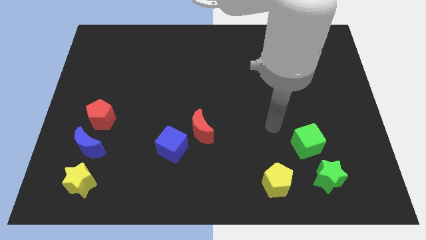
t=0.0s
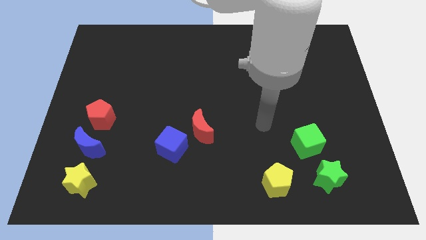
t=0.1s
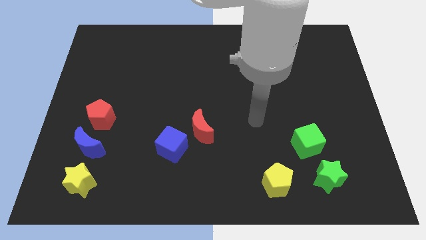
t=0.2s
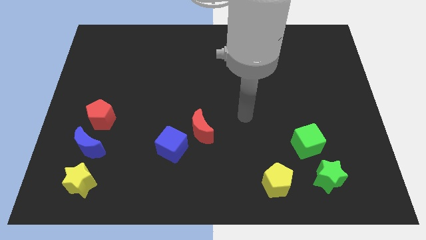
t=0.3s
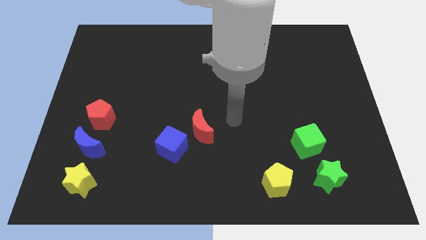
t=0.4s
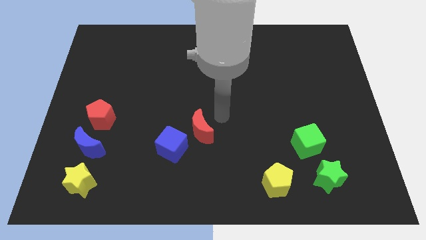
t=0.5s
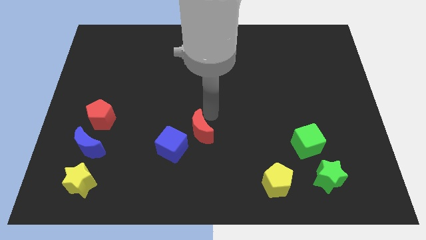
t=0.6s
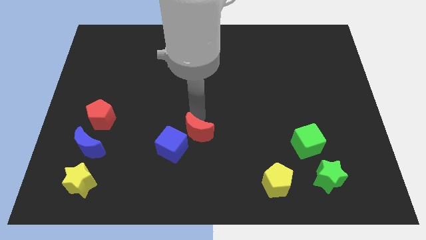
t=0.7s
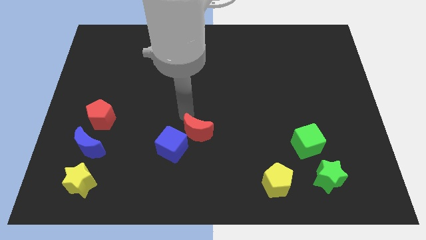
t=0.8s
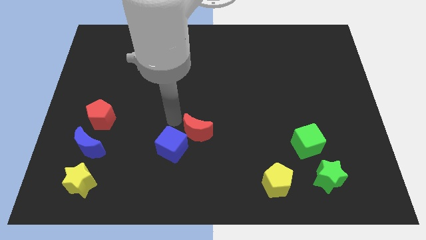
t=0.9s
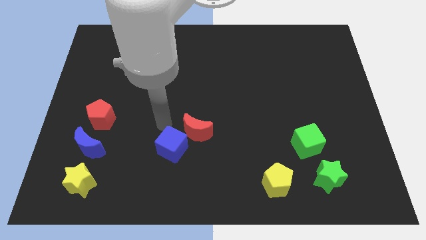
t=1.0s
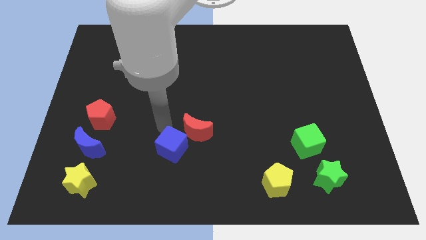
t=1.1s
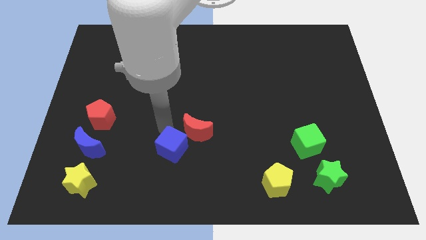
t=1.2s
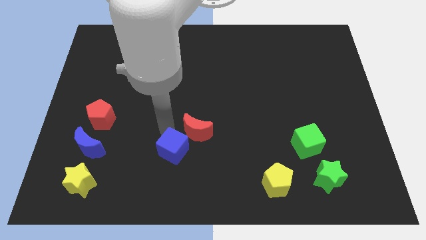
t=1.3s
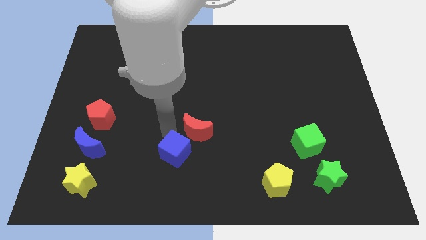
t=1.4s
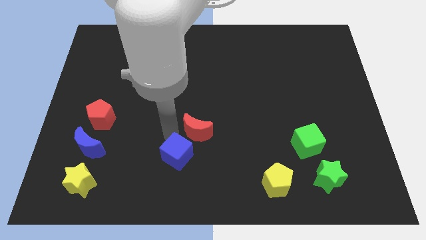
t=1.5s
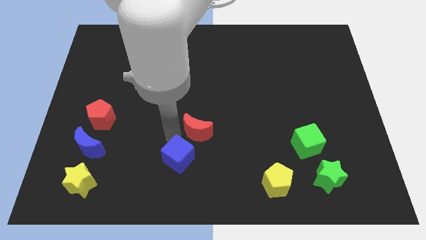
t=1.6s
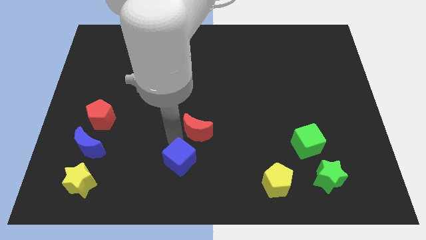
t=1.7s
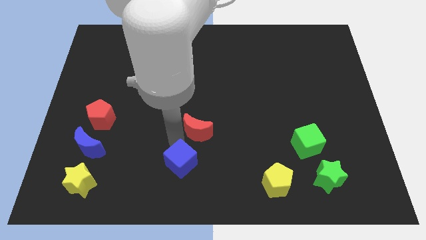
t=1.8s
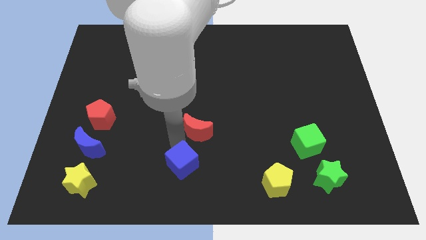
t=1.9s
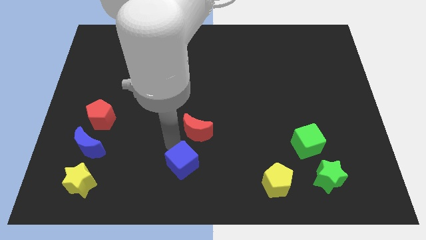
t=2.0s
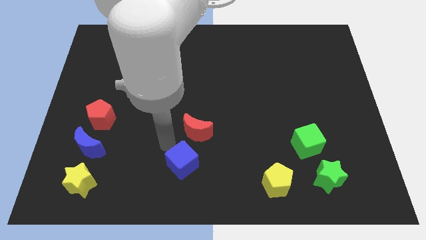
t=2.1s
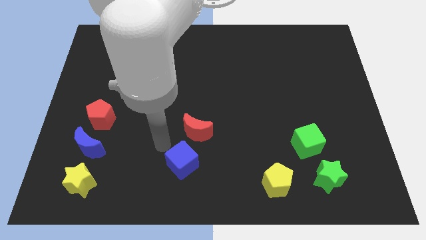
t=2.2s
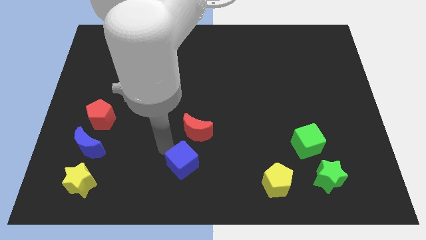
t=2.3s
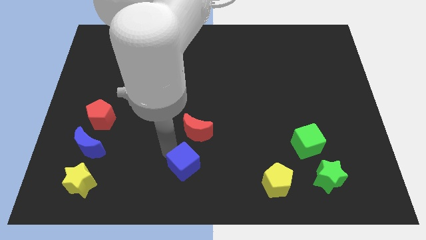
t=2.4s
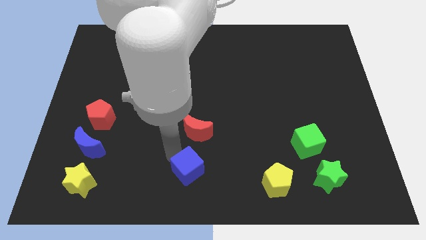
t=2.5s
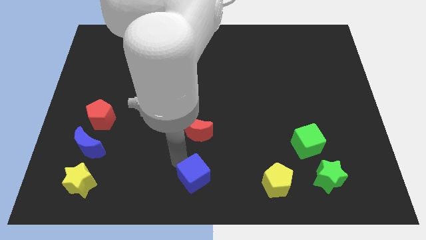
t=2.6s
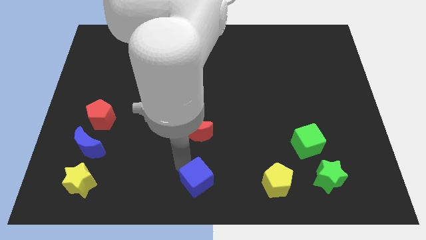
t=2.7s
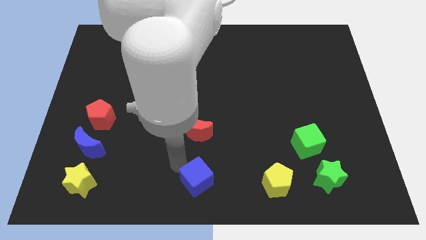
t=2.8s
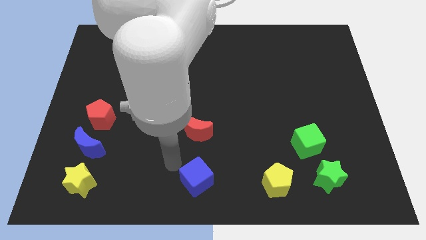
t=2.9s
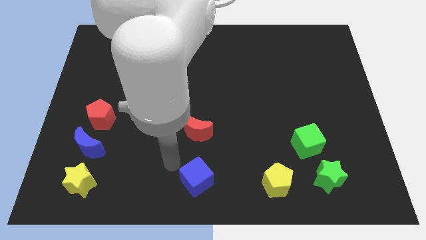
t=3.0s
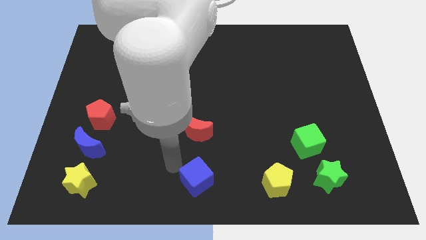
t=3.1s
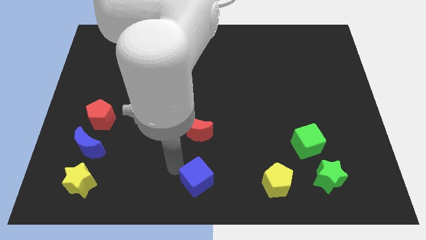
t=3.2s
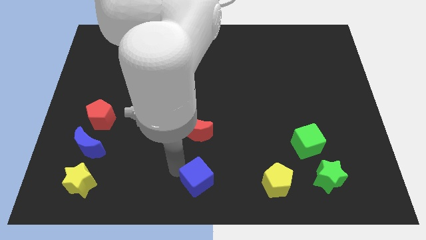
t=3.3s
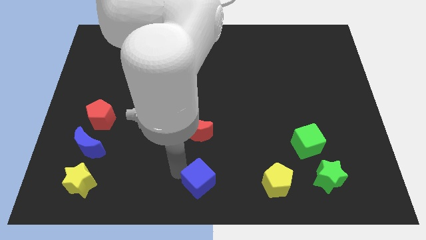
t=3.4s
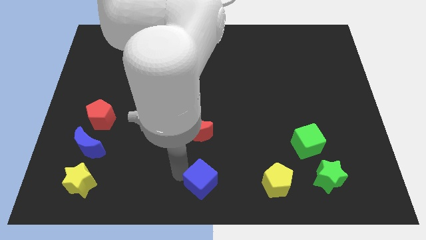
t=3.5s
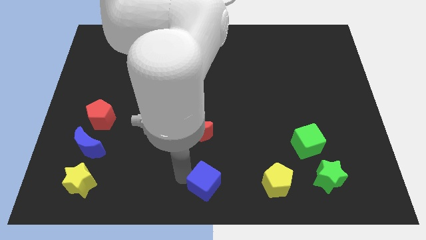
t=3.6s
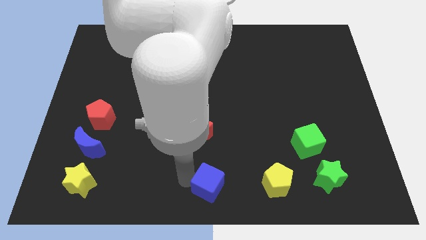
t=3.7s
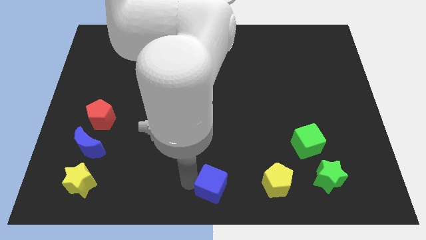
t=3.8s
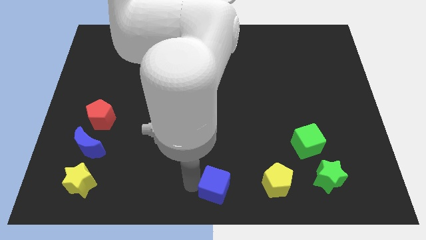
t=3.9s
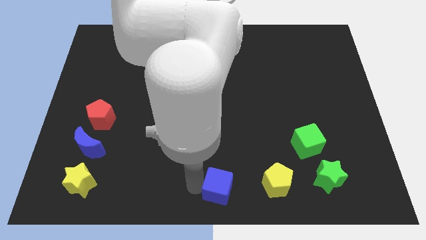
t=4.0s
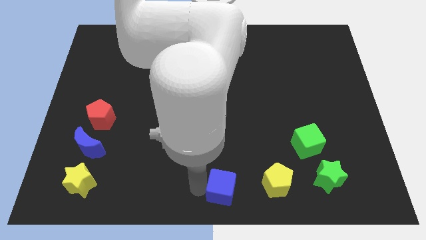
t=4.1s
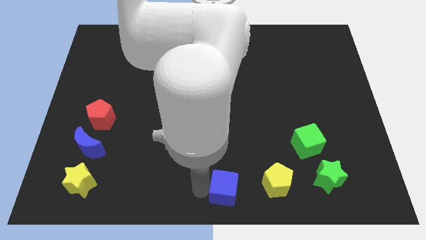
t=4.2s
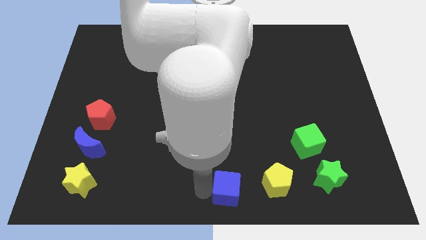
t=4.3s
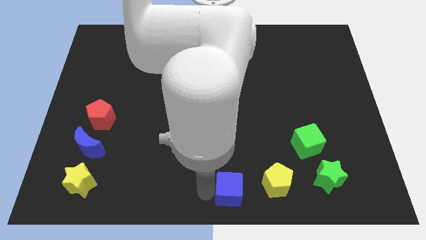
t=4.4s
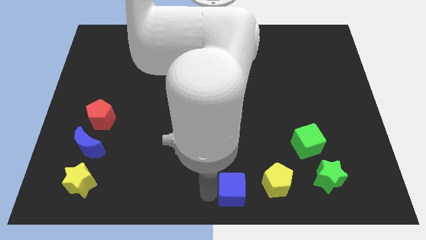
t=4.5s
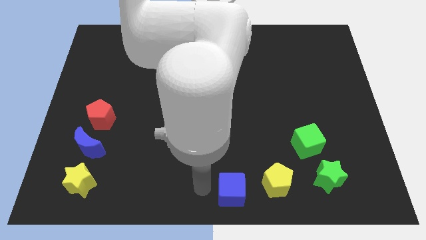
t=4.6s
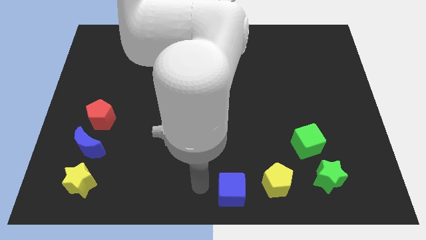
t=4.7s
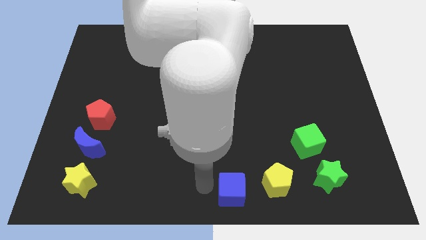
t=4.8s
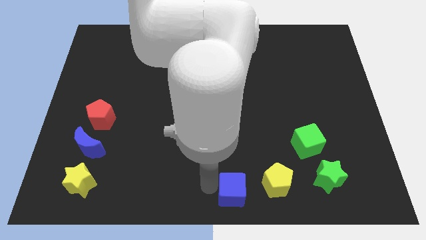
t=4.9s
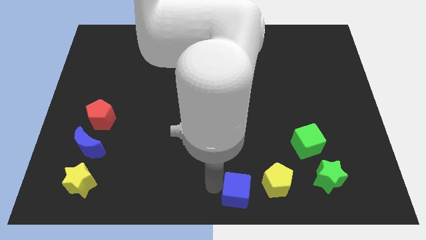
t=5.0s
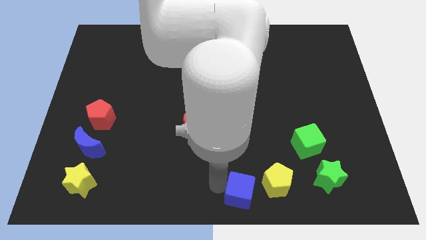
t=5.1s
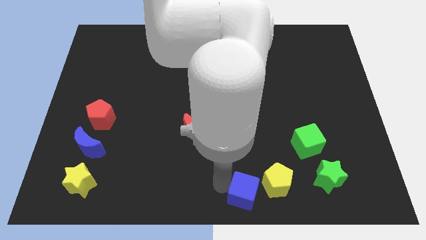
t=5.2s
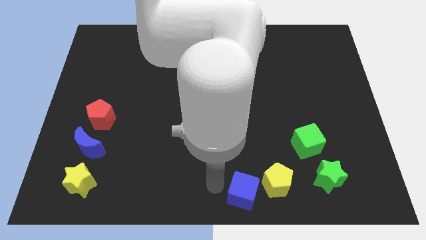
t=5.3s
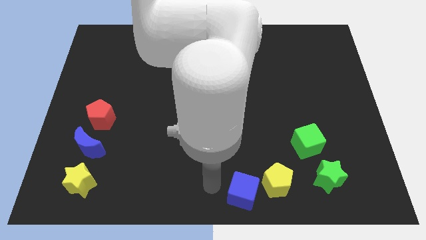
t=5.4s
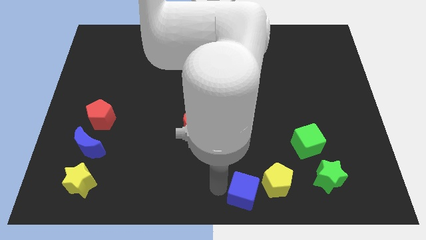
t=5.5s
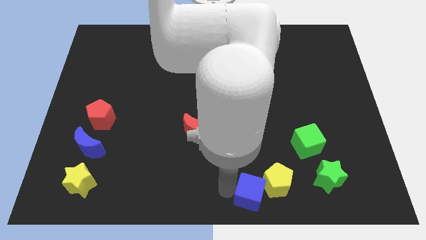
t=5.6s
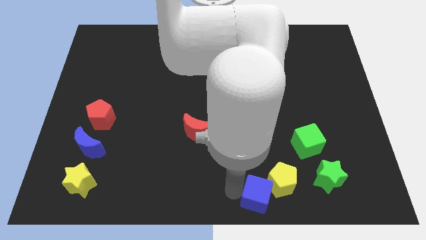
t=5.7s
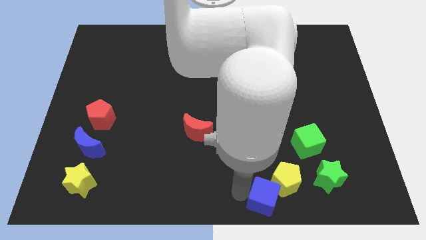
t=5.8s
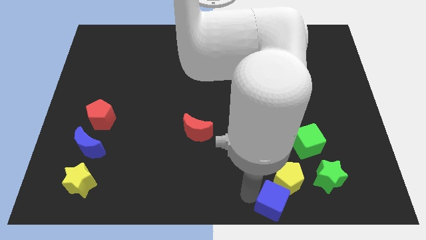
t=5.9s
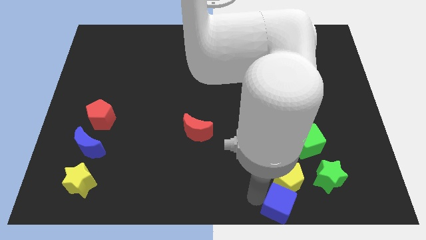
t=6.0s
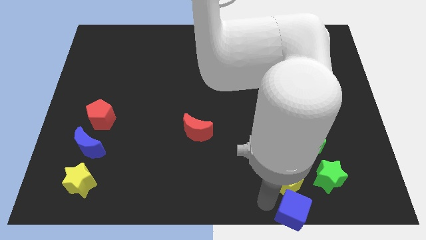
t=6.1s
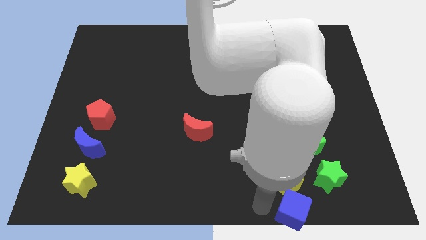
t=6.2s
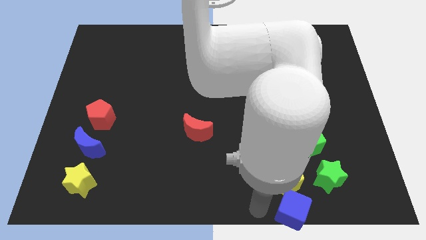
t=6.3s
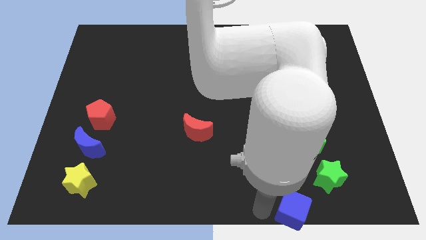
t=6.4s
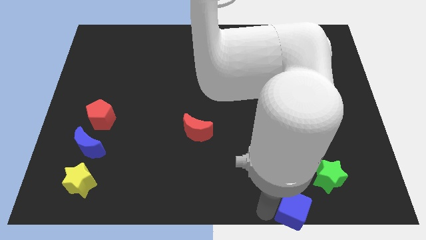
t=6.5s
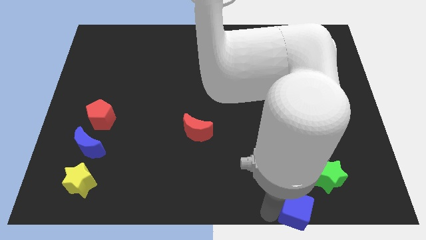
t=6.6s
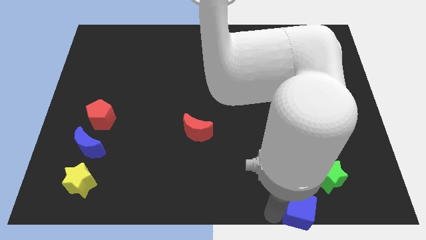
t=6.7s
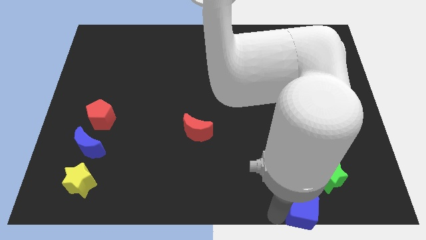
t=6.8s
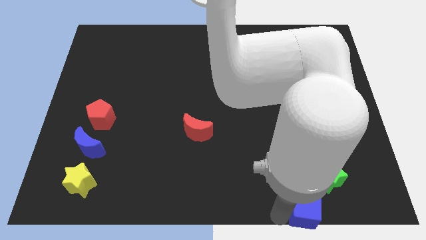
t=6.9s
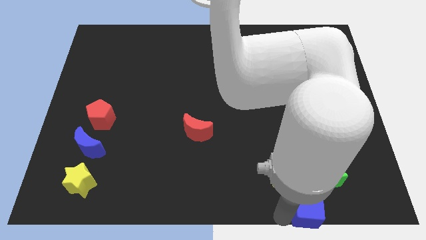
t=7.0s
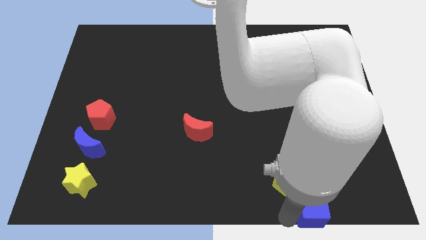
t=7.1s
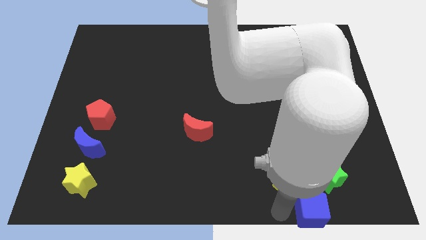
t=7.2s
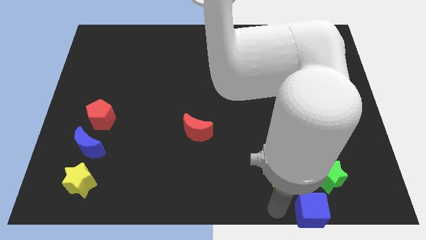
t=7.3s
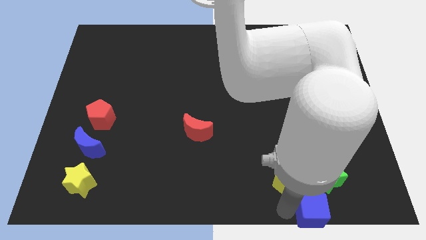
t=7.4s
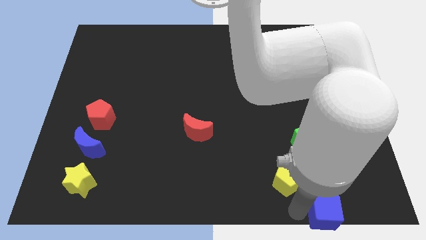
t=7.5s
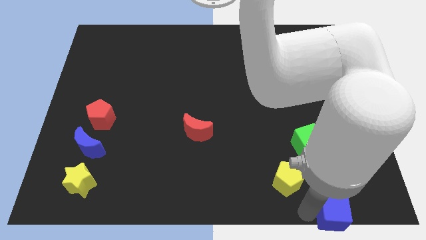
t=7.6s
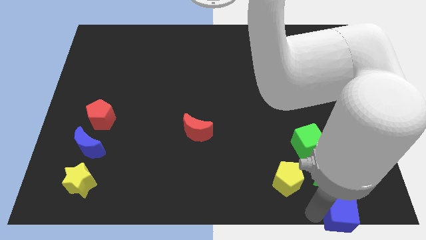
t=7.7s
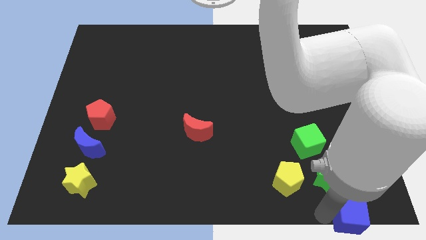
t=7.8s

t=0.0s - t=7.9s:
slide the blue cube to the bottom right corner
